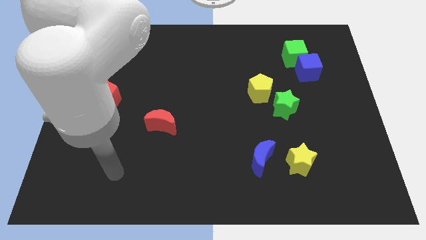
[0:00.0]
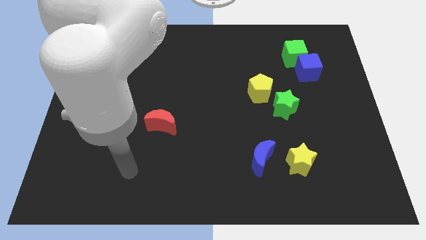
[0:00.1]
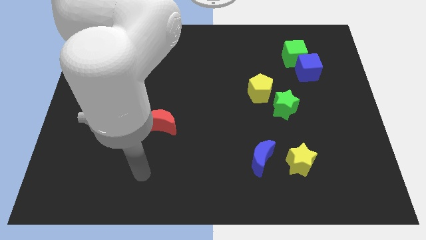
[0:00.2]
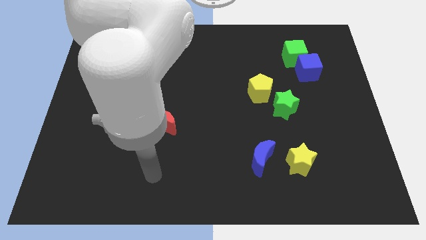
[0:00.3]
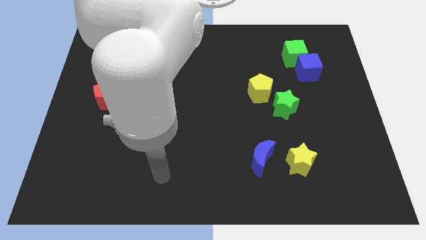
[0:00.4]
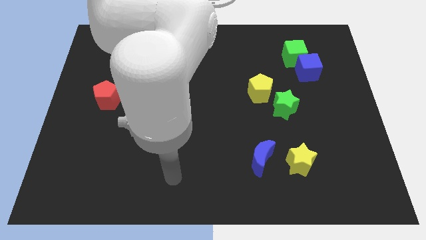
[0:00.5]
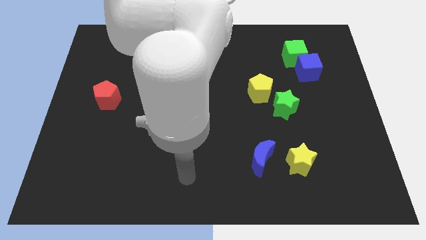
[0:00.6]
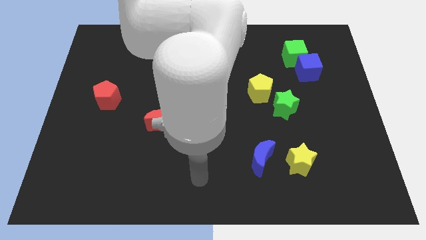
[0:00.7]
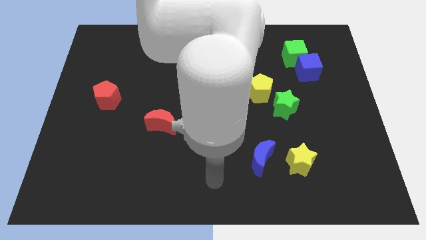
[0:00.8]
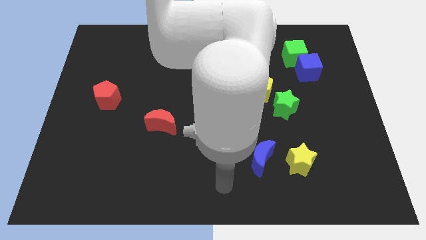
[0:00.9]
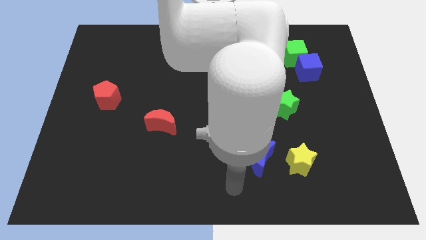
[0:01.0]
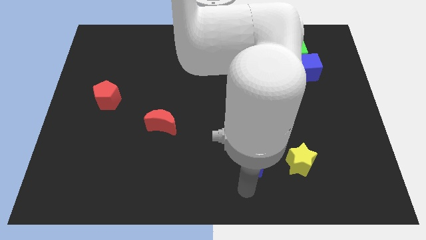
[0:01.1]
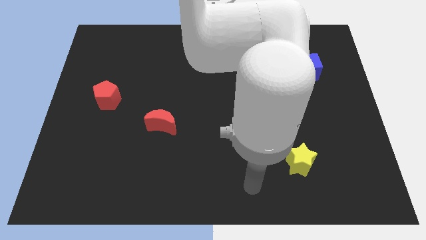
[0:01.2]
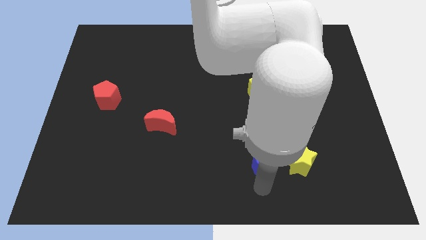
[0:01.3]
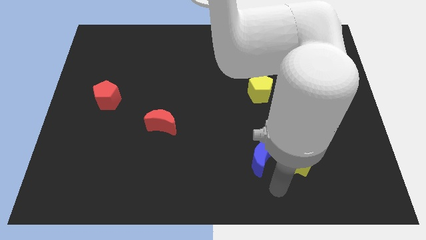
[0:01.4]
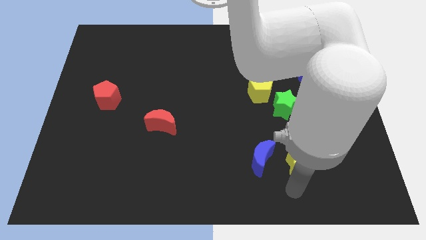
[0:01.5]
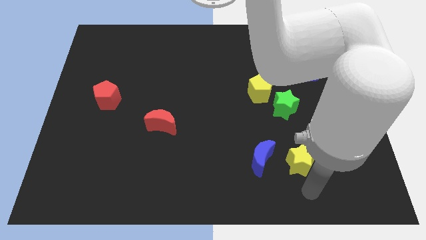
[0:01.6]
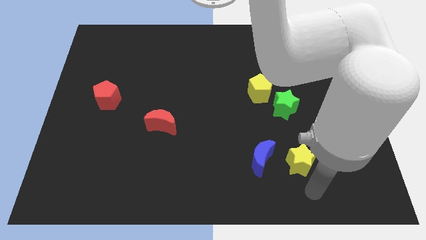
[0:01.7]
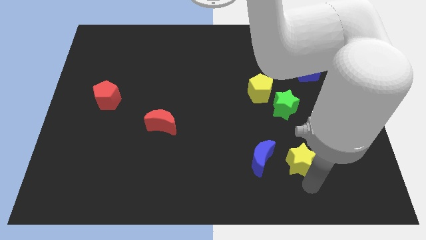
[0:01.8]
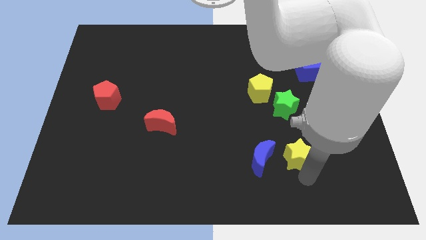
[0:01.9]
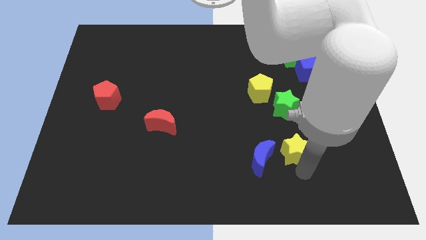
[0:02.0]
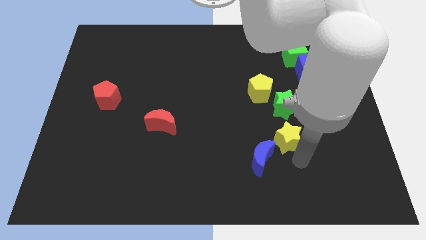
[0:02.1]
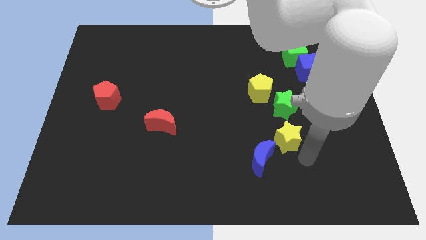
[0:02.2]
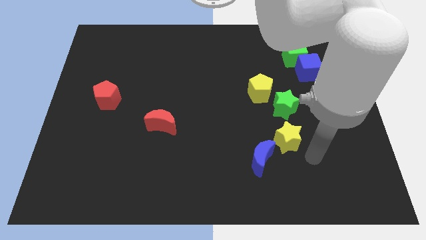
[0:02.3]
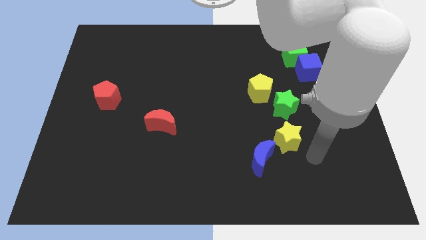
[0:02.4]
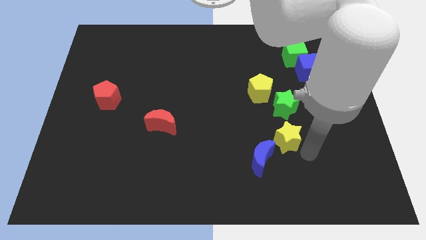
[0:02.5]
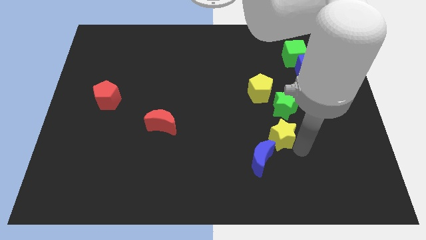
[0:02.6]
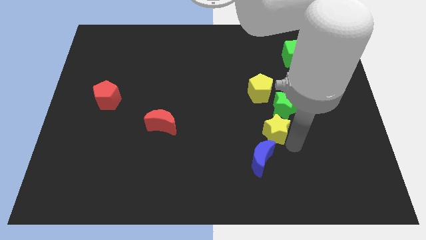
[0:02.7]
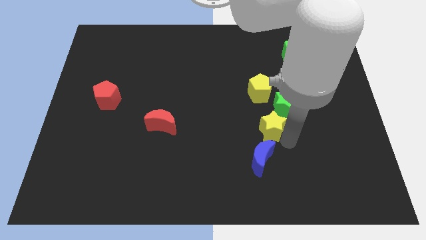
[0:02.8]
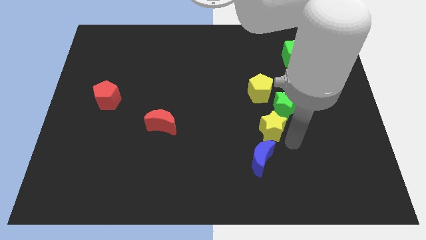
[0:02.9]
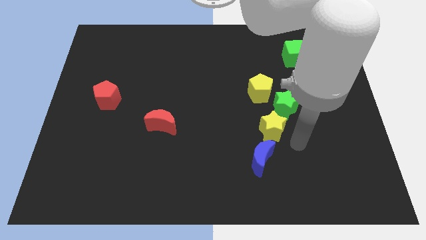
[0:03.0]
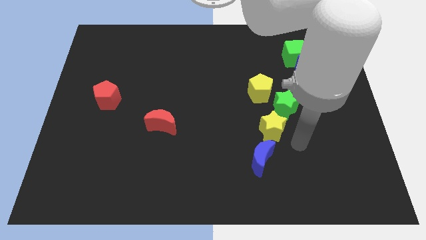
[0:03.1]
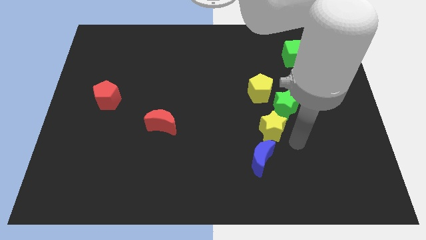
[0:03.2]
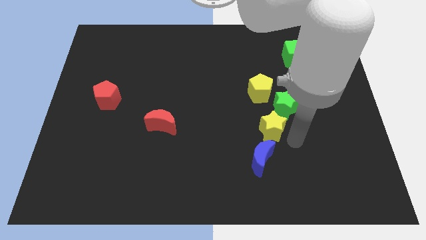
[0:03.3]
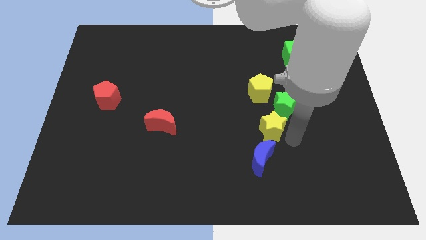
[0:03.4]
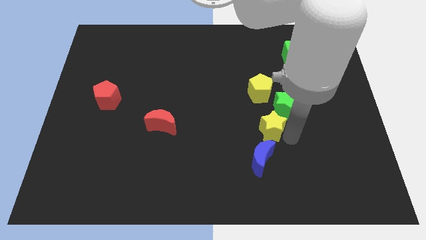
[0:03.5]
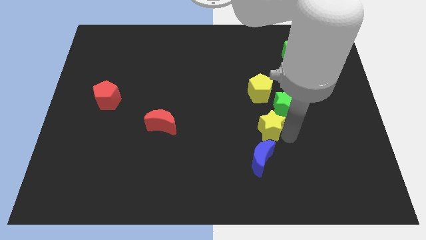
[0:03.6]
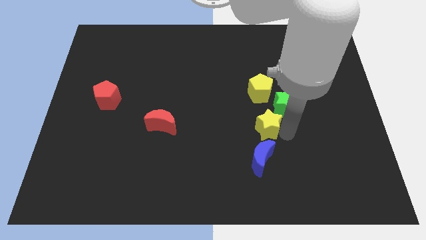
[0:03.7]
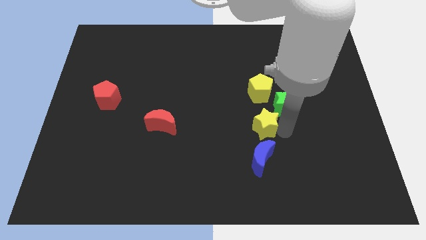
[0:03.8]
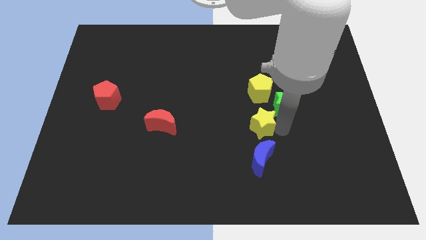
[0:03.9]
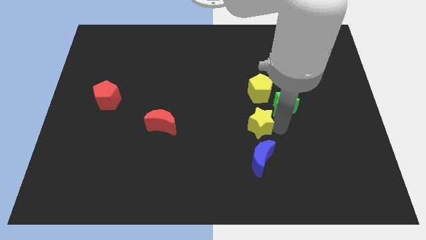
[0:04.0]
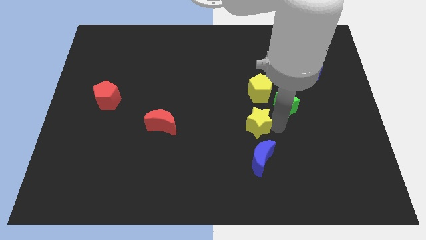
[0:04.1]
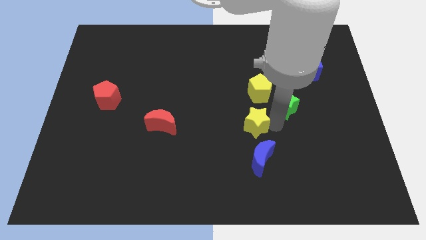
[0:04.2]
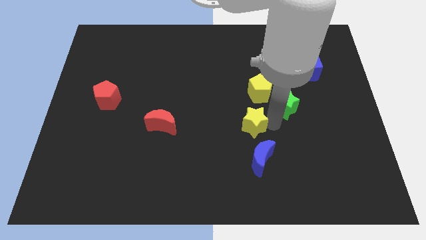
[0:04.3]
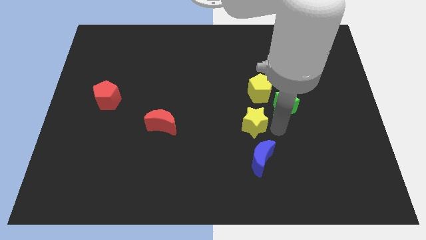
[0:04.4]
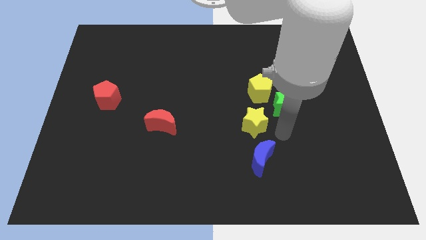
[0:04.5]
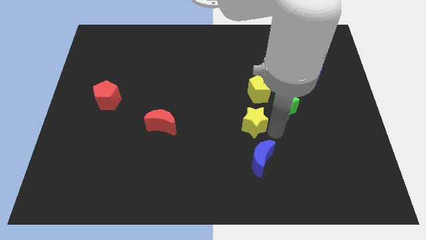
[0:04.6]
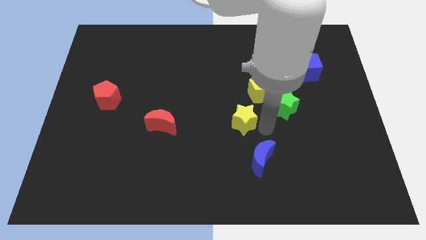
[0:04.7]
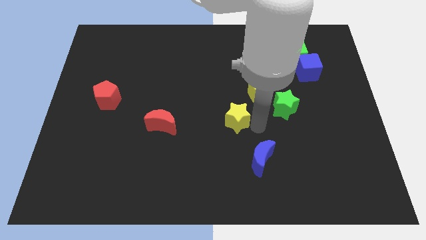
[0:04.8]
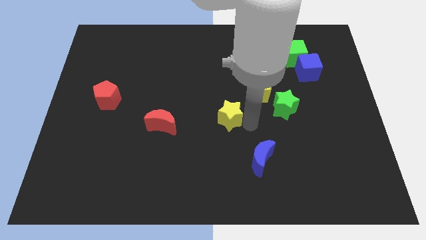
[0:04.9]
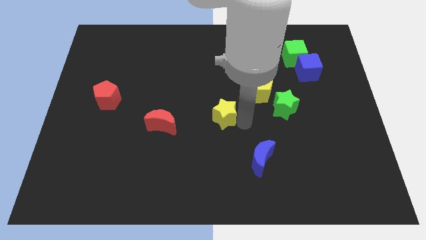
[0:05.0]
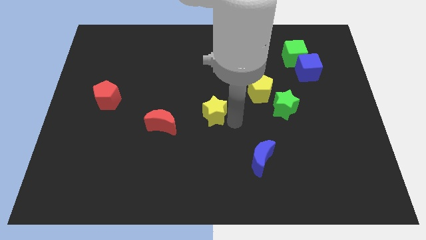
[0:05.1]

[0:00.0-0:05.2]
move the yellow star up and to the left

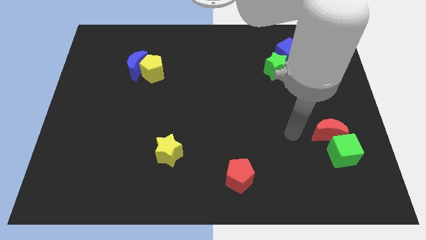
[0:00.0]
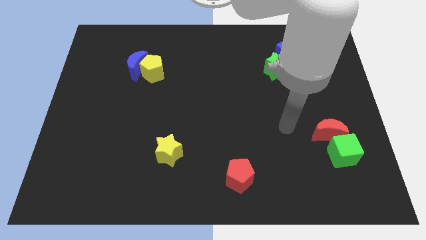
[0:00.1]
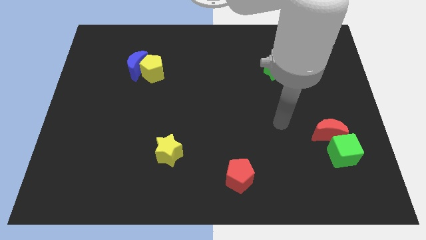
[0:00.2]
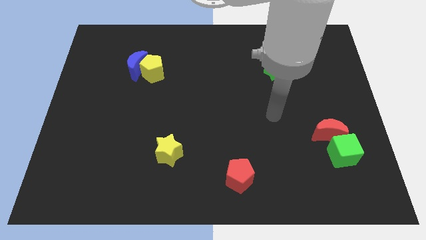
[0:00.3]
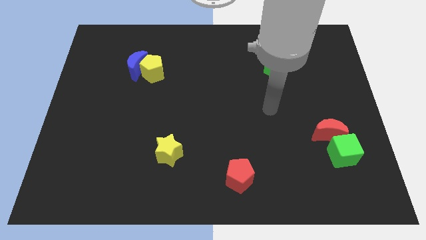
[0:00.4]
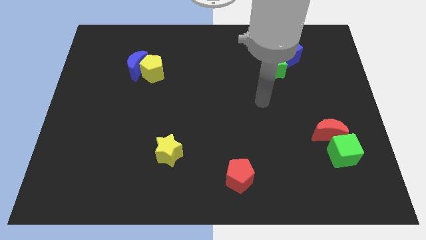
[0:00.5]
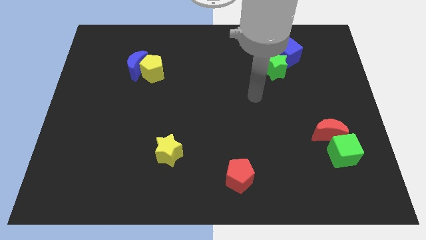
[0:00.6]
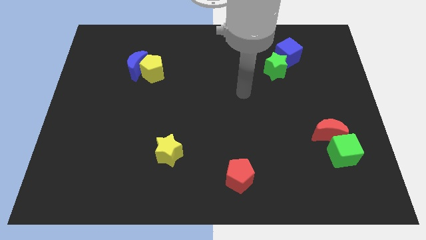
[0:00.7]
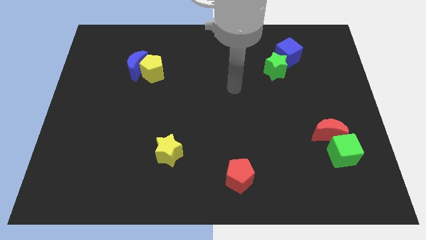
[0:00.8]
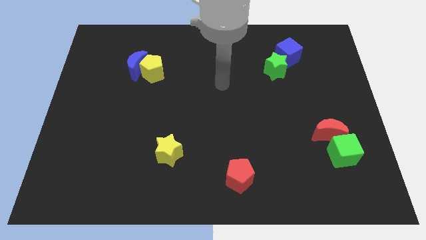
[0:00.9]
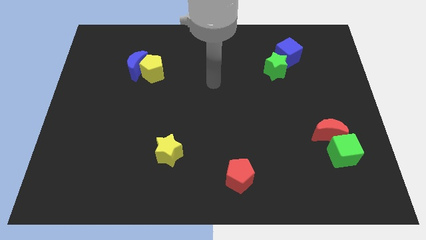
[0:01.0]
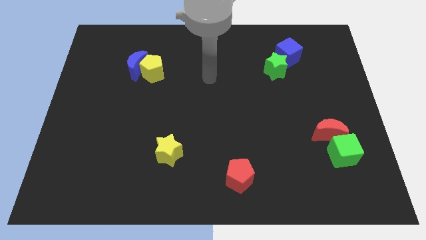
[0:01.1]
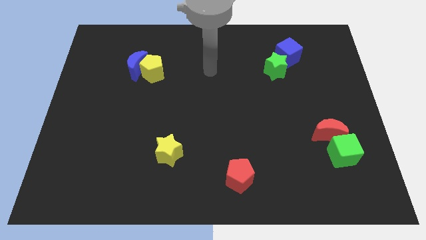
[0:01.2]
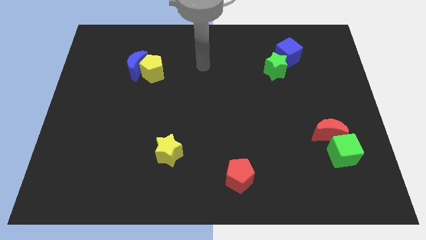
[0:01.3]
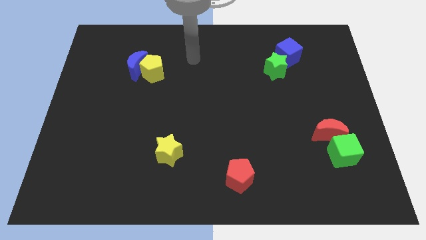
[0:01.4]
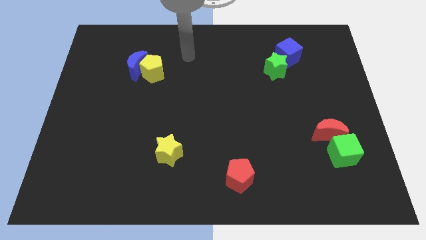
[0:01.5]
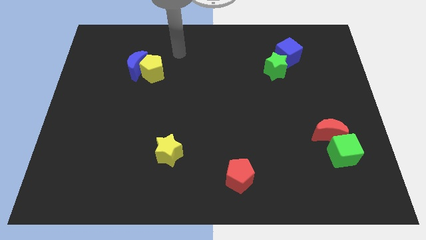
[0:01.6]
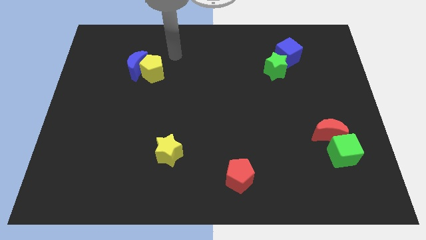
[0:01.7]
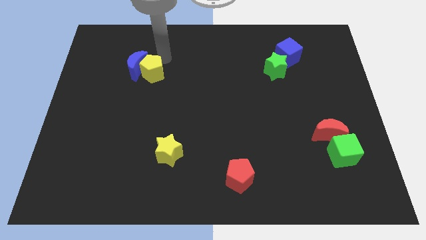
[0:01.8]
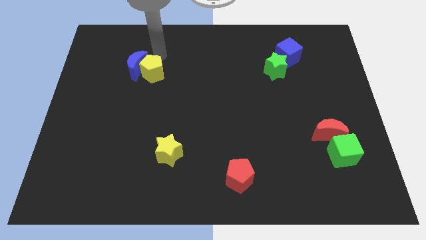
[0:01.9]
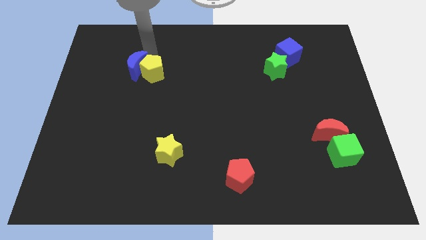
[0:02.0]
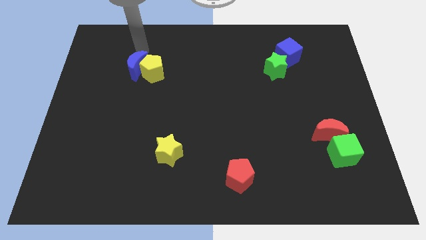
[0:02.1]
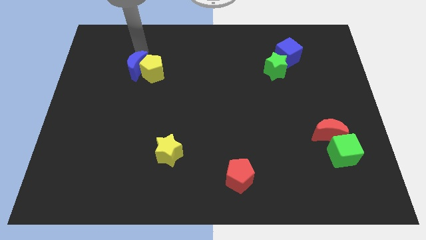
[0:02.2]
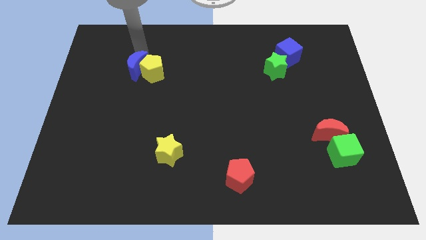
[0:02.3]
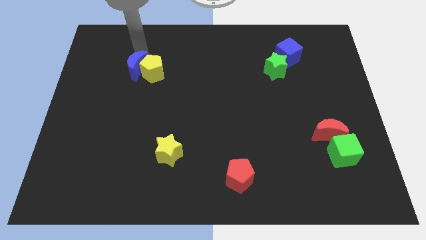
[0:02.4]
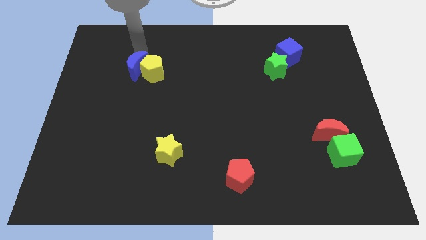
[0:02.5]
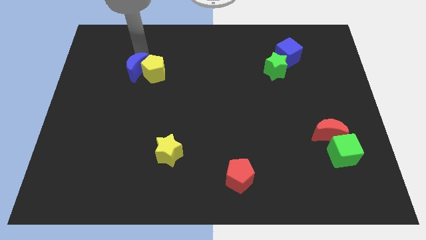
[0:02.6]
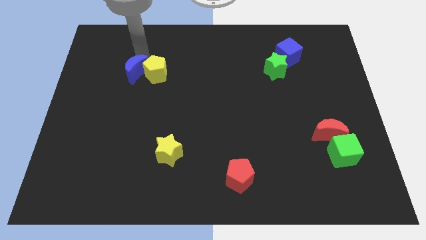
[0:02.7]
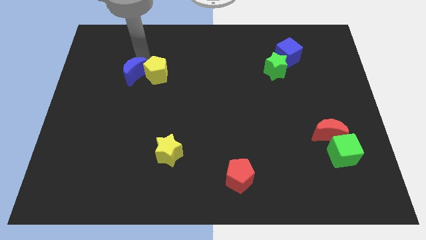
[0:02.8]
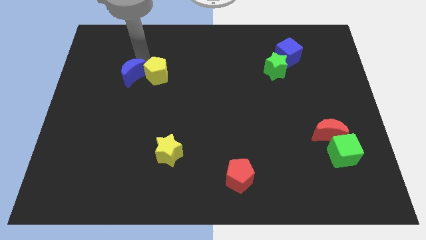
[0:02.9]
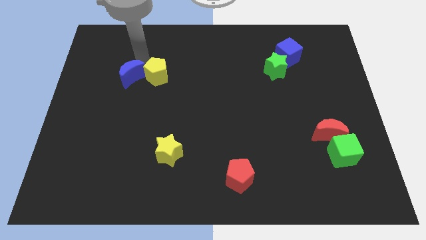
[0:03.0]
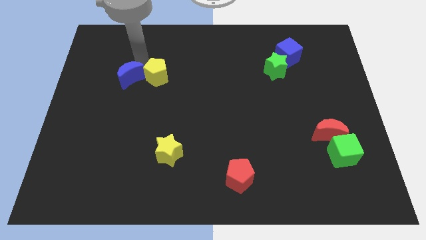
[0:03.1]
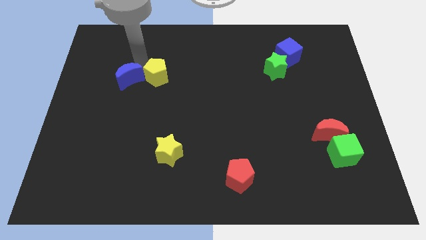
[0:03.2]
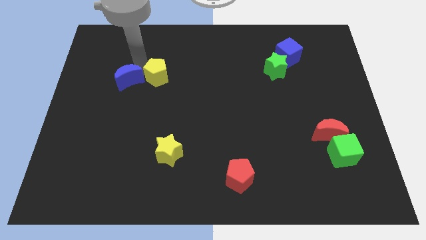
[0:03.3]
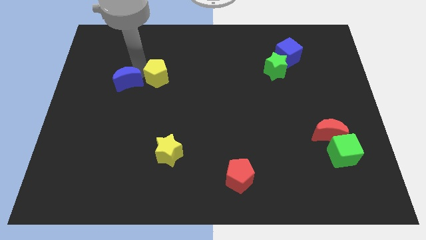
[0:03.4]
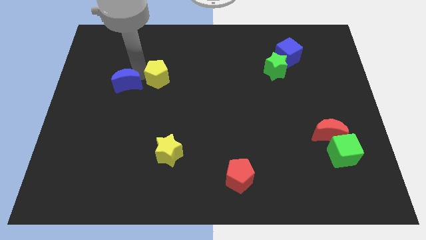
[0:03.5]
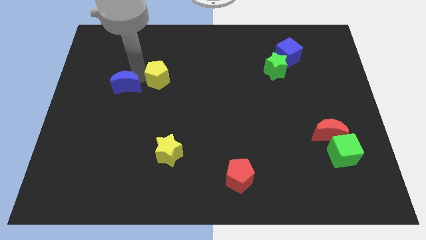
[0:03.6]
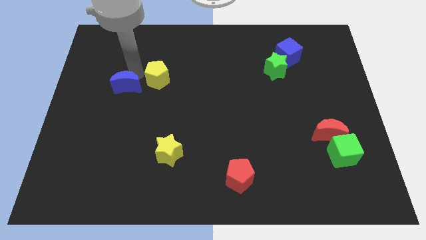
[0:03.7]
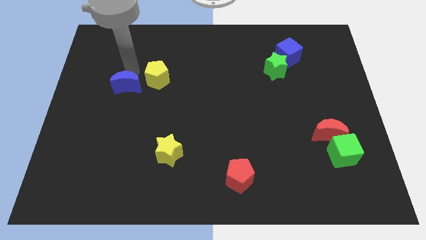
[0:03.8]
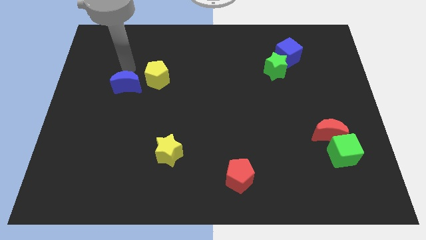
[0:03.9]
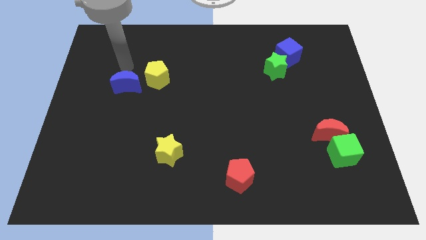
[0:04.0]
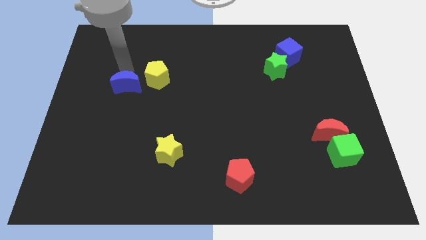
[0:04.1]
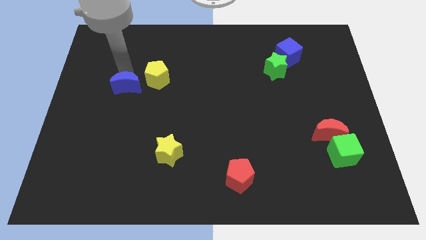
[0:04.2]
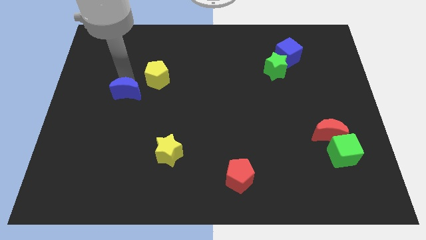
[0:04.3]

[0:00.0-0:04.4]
push the blue moon down a little
